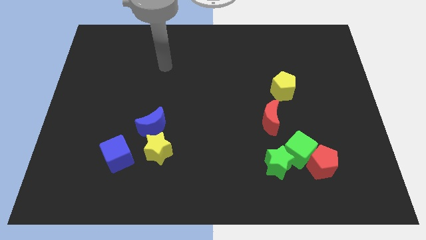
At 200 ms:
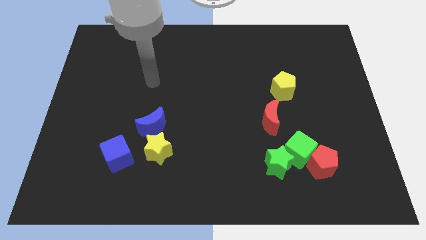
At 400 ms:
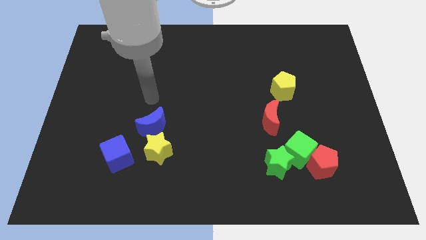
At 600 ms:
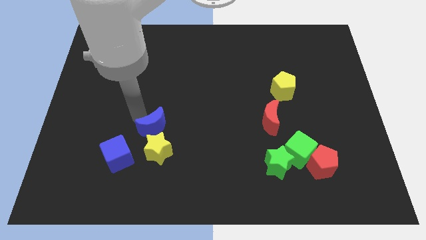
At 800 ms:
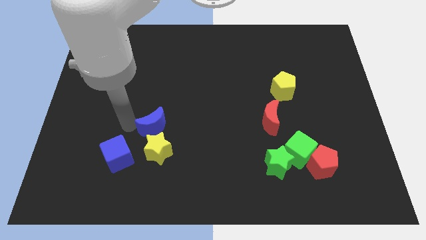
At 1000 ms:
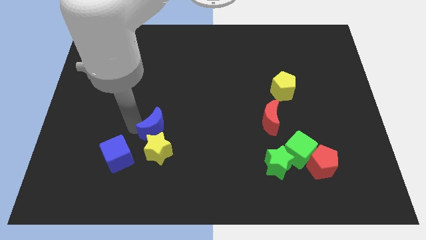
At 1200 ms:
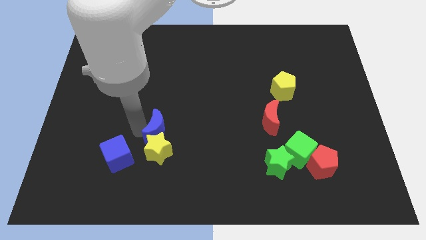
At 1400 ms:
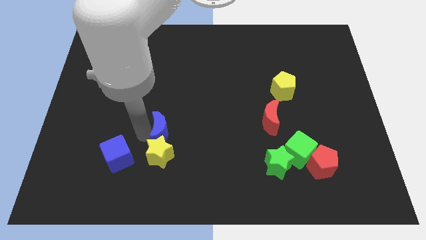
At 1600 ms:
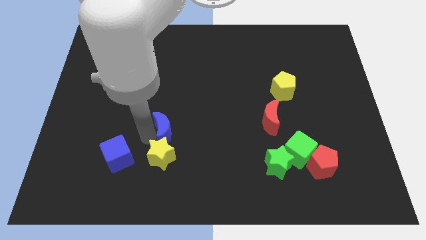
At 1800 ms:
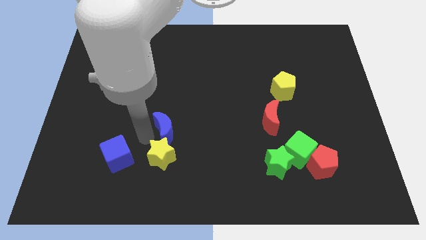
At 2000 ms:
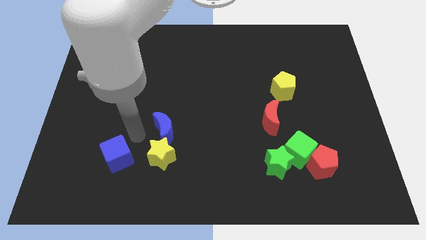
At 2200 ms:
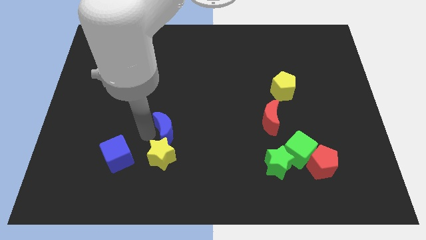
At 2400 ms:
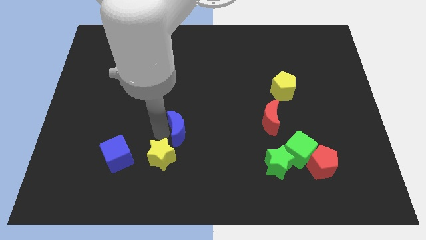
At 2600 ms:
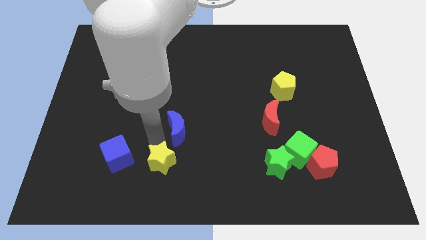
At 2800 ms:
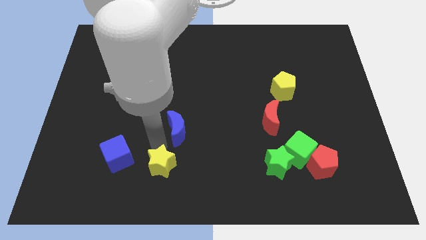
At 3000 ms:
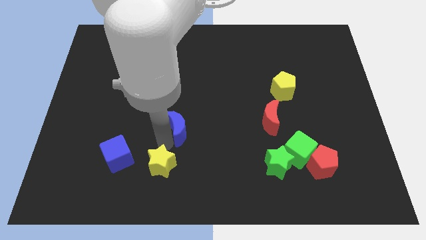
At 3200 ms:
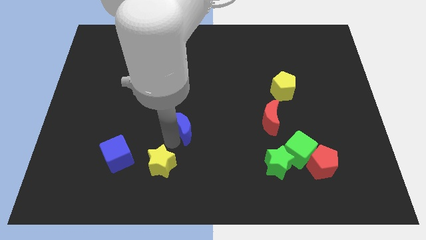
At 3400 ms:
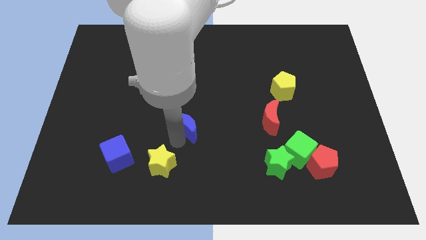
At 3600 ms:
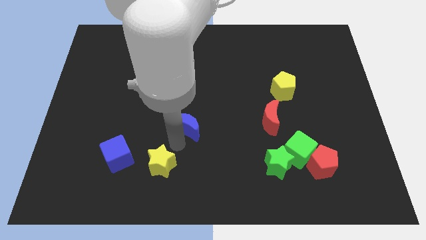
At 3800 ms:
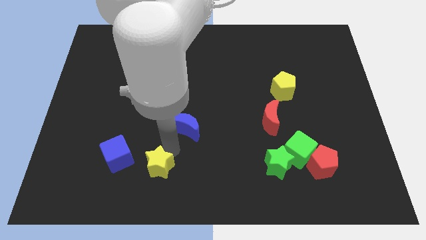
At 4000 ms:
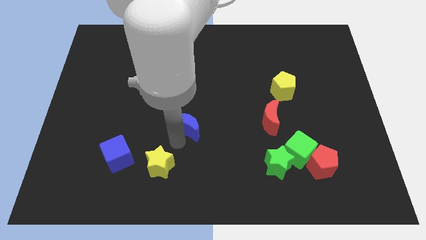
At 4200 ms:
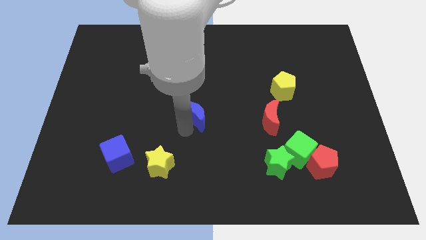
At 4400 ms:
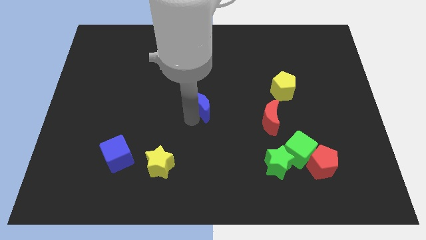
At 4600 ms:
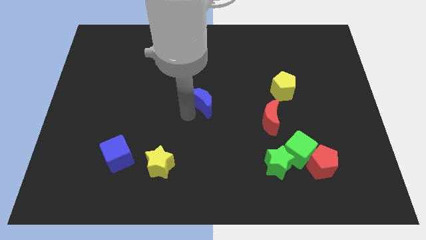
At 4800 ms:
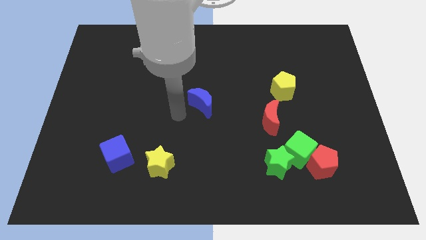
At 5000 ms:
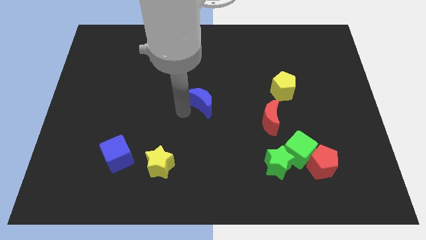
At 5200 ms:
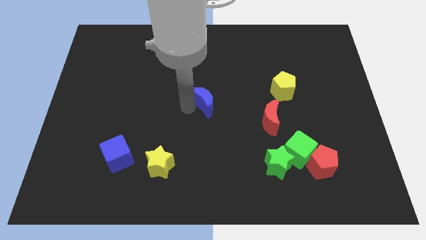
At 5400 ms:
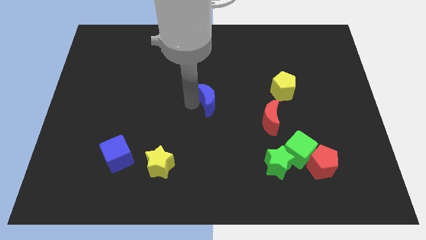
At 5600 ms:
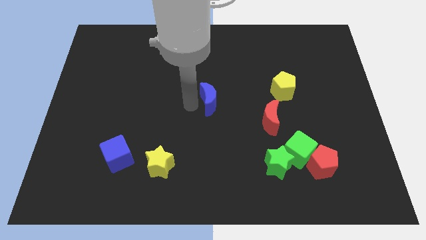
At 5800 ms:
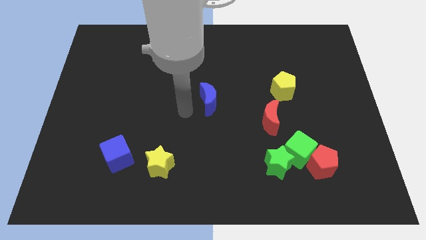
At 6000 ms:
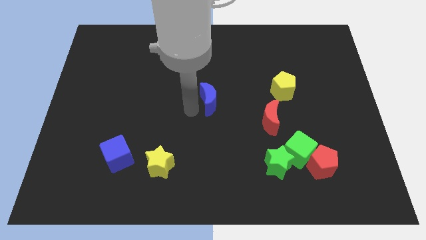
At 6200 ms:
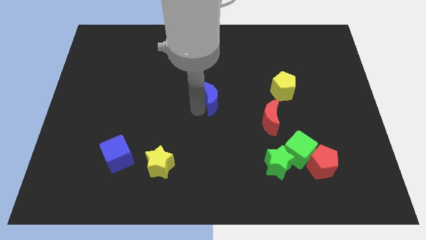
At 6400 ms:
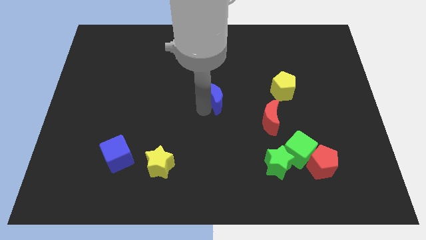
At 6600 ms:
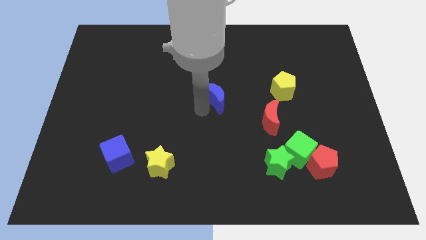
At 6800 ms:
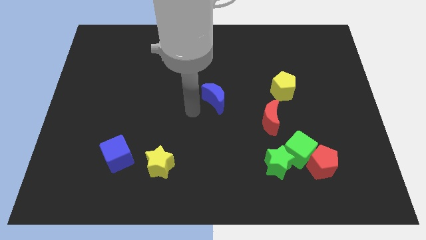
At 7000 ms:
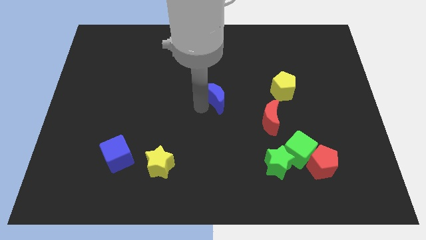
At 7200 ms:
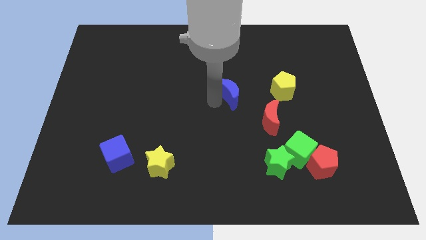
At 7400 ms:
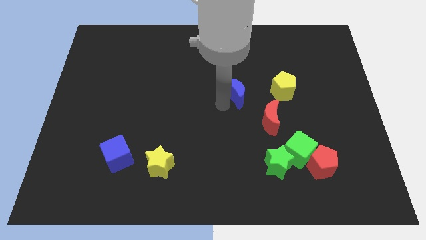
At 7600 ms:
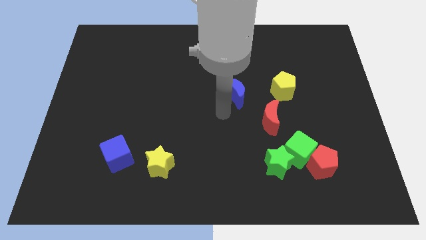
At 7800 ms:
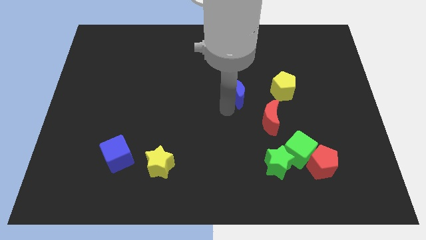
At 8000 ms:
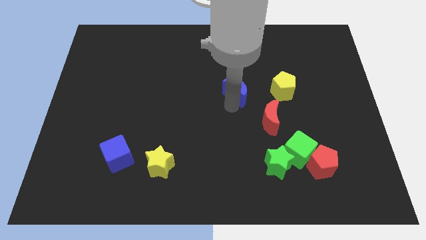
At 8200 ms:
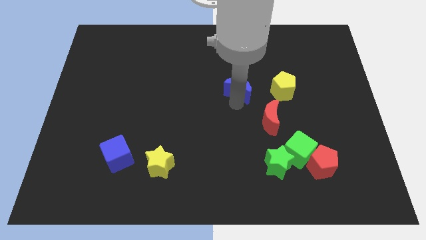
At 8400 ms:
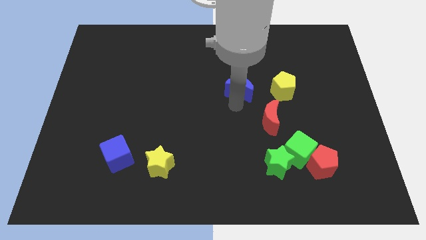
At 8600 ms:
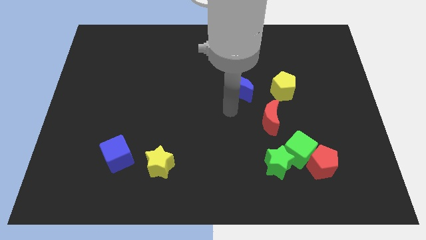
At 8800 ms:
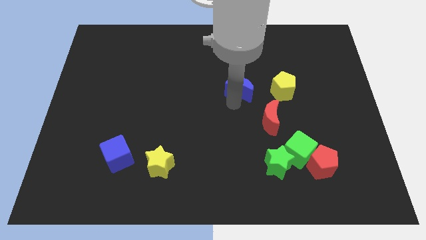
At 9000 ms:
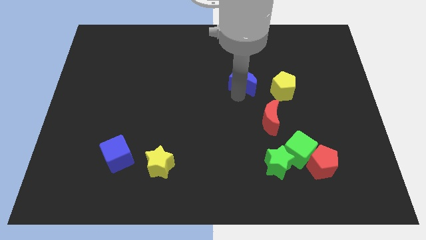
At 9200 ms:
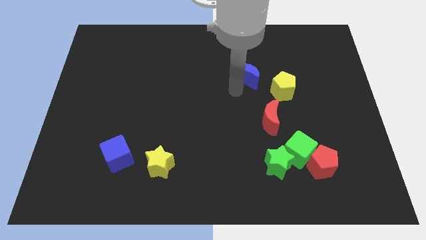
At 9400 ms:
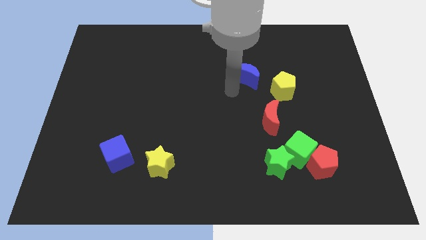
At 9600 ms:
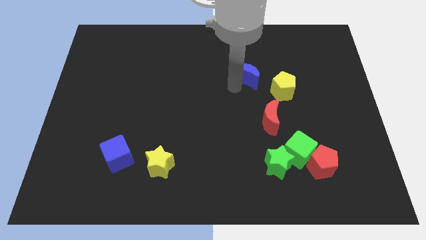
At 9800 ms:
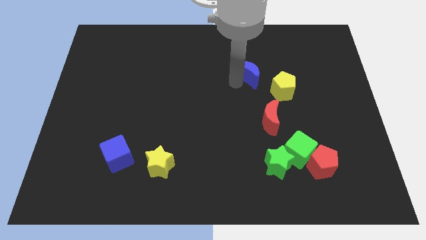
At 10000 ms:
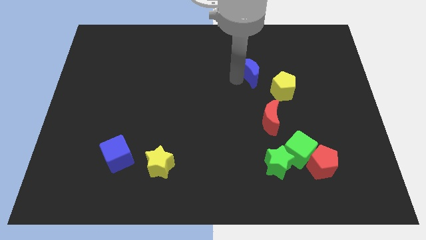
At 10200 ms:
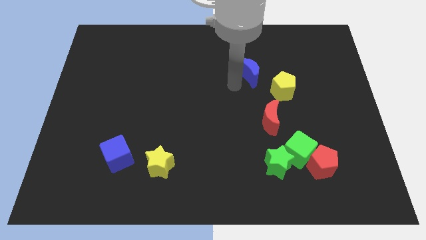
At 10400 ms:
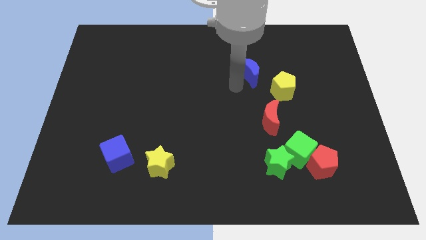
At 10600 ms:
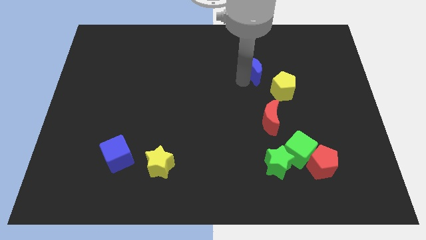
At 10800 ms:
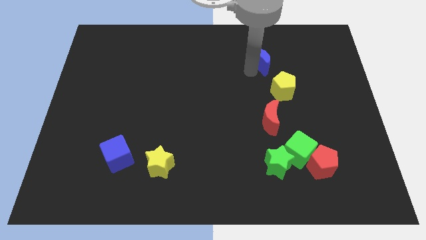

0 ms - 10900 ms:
push the blue moon above the yellow pentagon

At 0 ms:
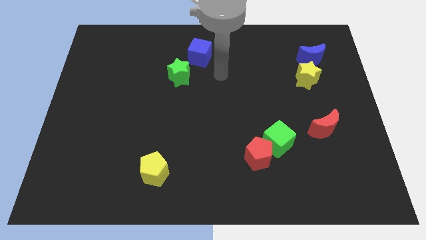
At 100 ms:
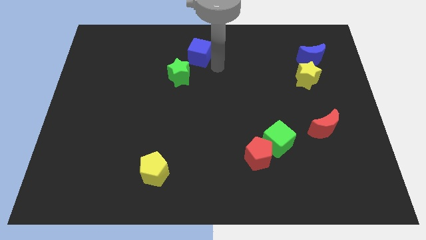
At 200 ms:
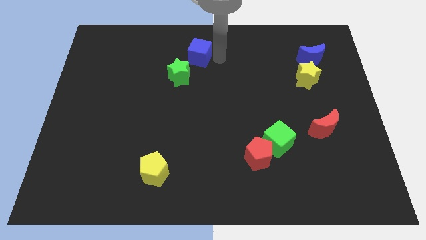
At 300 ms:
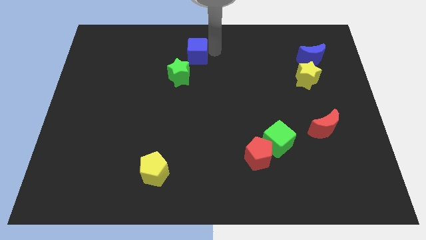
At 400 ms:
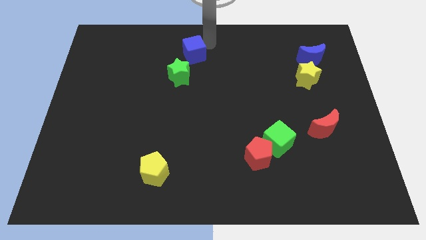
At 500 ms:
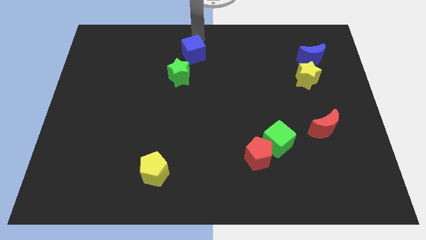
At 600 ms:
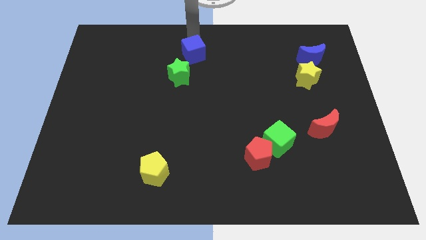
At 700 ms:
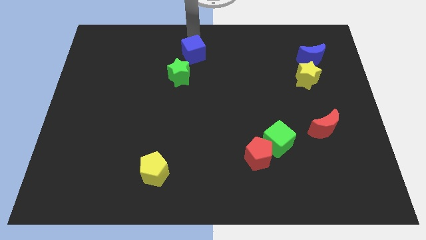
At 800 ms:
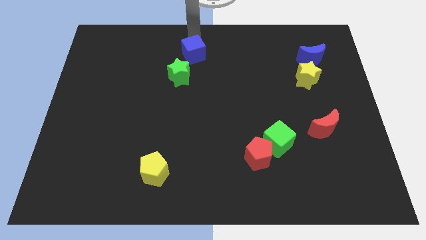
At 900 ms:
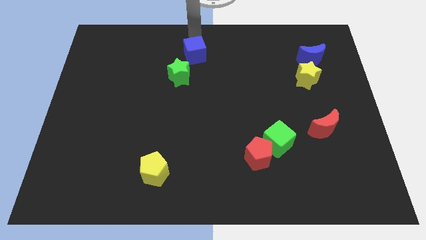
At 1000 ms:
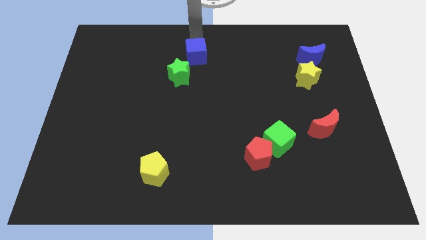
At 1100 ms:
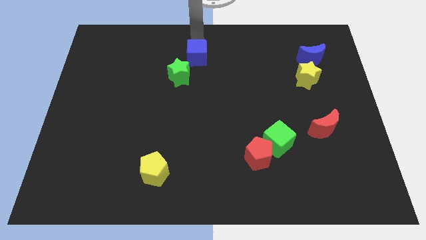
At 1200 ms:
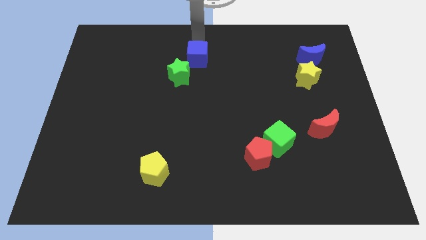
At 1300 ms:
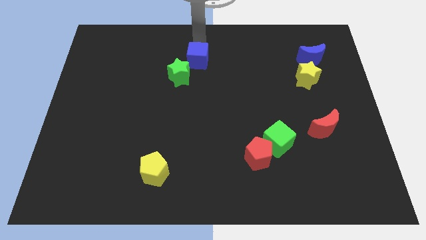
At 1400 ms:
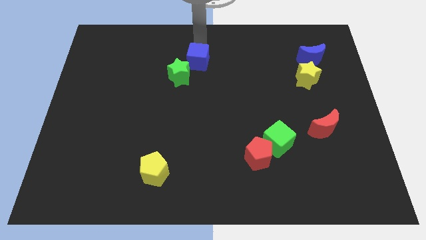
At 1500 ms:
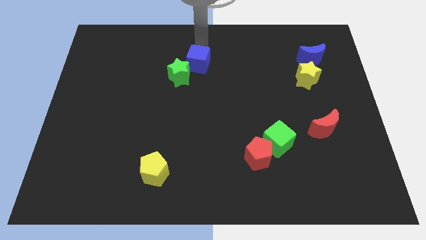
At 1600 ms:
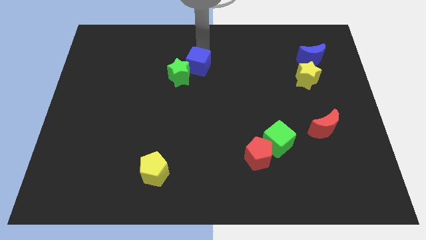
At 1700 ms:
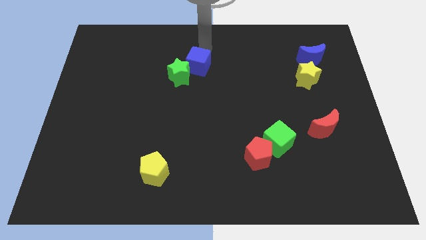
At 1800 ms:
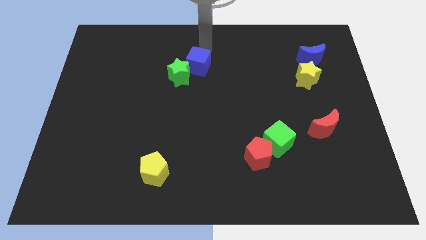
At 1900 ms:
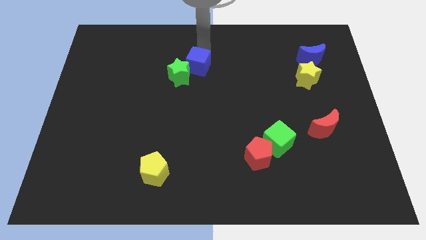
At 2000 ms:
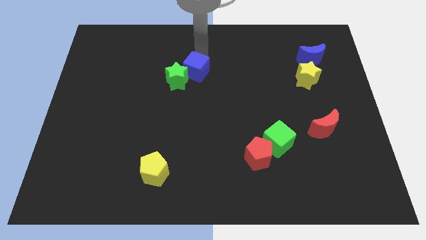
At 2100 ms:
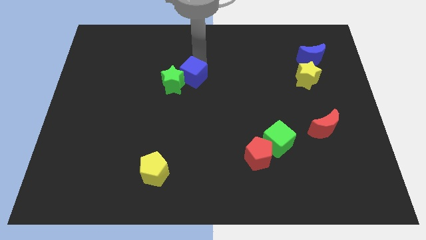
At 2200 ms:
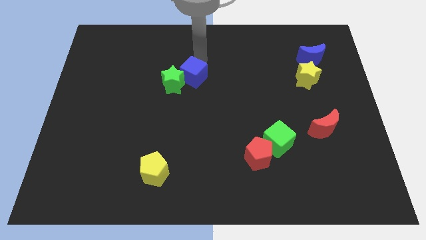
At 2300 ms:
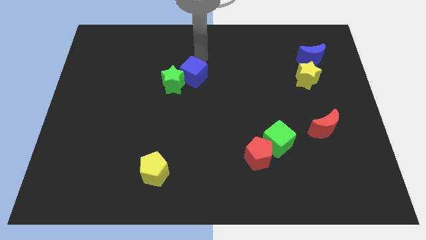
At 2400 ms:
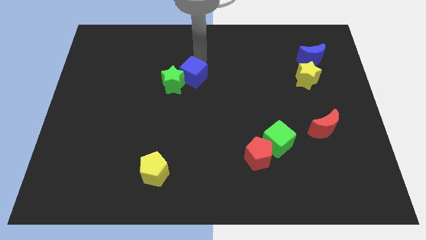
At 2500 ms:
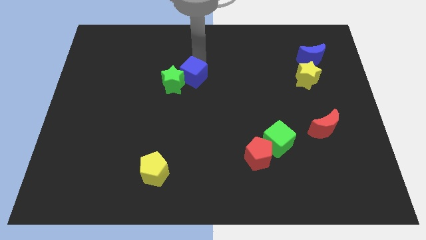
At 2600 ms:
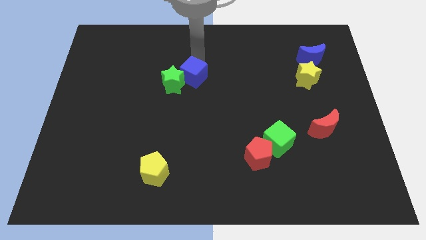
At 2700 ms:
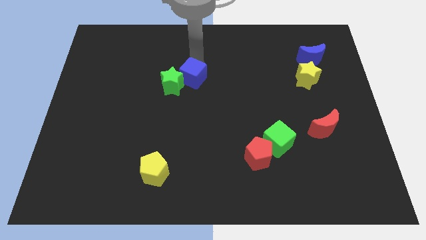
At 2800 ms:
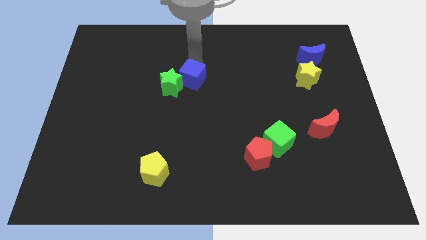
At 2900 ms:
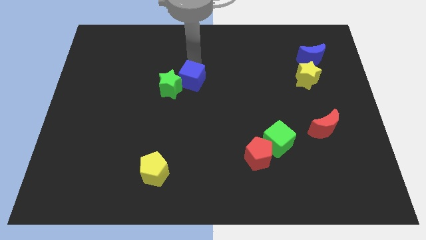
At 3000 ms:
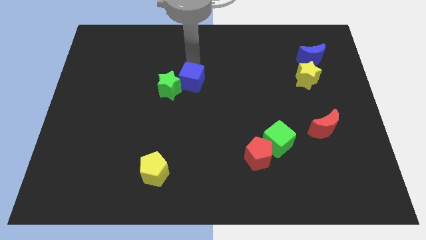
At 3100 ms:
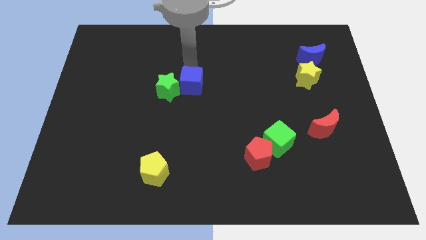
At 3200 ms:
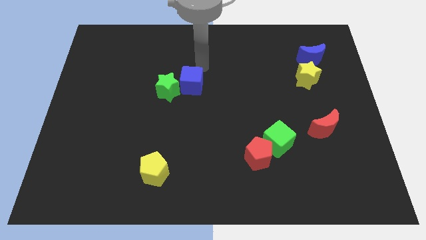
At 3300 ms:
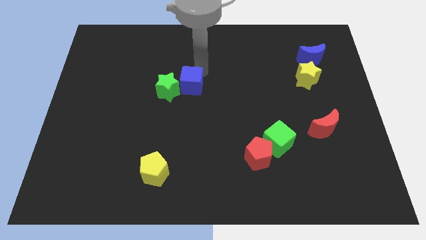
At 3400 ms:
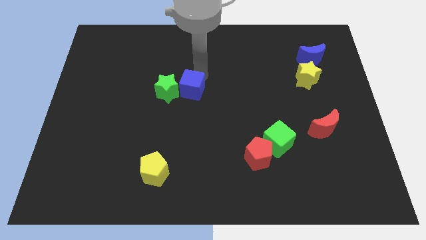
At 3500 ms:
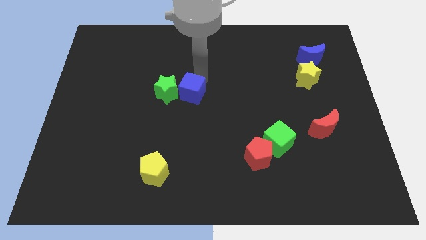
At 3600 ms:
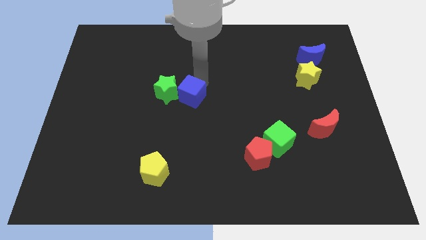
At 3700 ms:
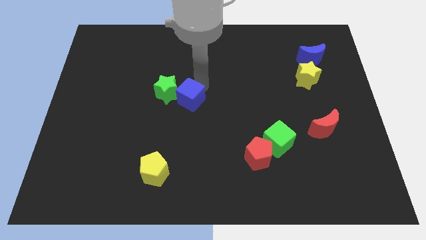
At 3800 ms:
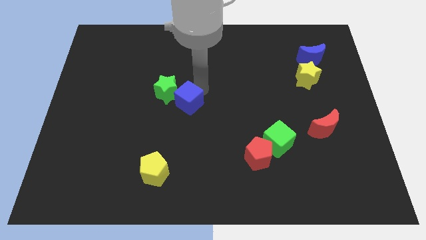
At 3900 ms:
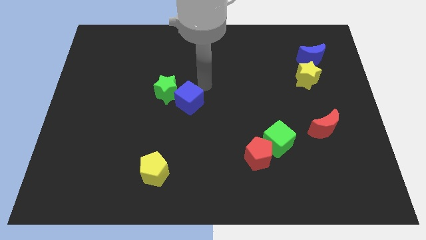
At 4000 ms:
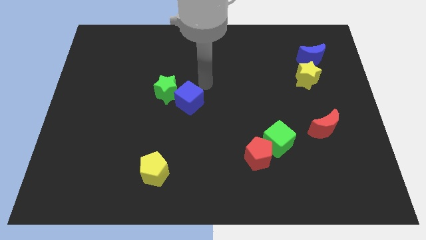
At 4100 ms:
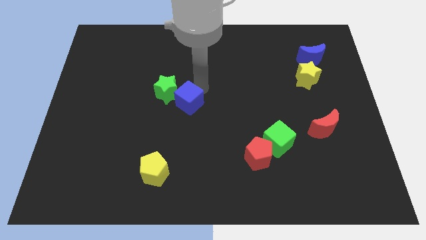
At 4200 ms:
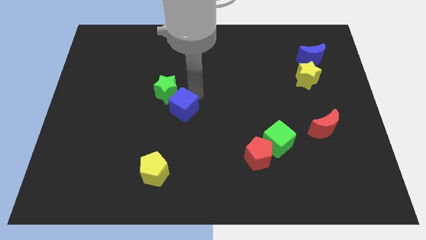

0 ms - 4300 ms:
slide the blue cube to the bottom of the green star
